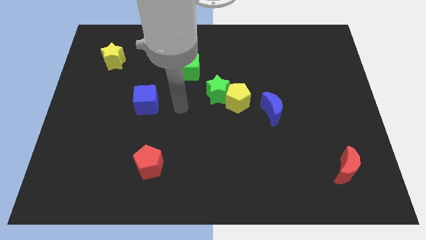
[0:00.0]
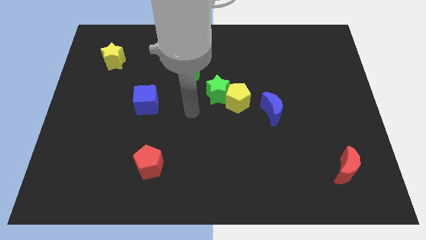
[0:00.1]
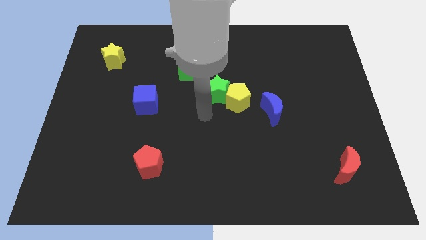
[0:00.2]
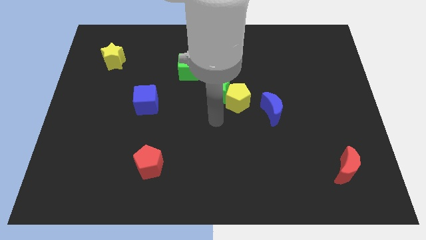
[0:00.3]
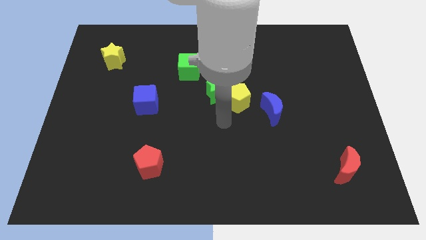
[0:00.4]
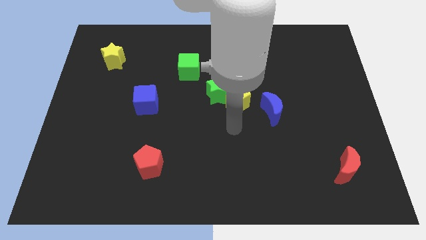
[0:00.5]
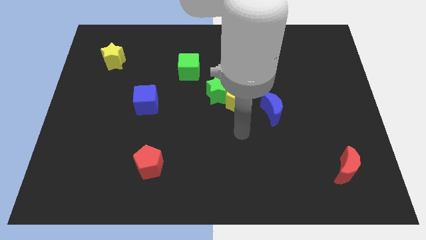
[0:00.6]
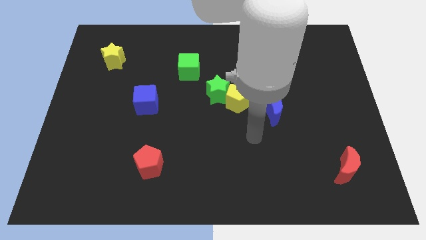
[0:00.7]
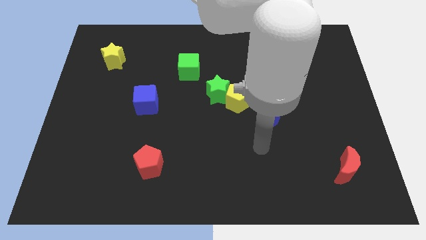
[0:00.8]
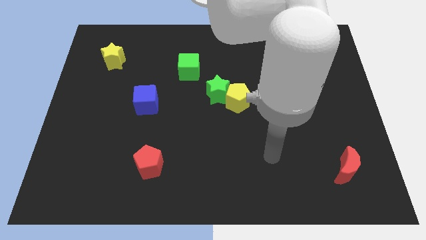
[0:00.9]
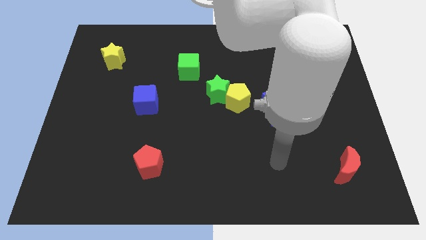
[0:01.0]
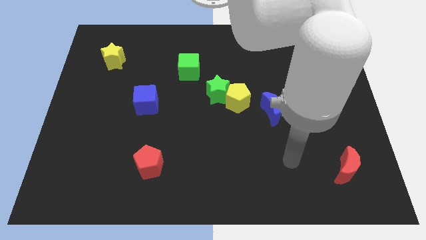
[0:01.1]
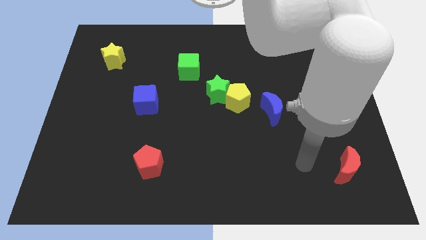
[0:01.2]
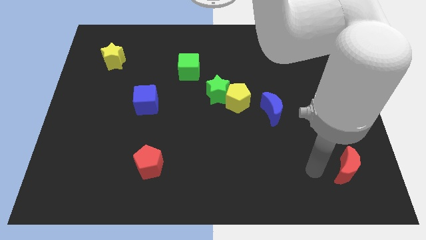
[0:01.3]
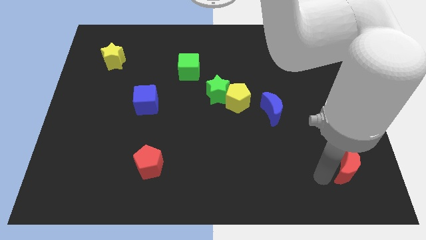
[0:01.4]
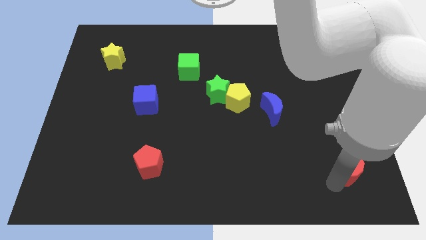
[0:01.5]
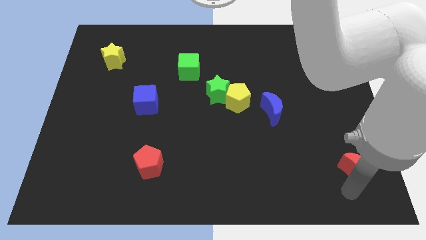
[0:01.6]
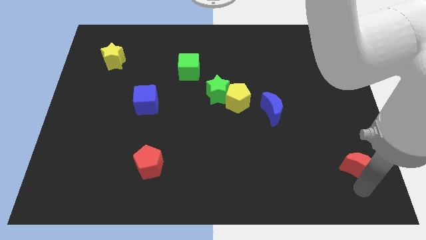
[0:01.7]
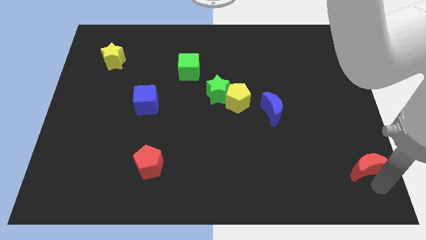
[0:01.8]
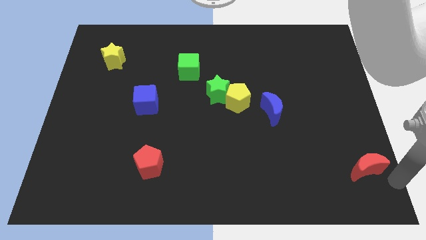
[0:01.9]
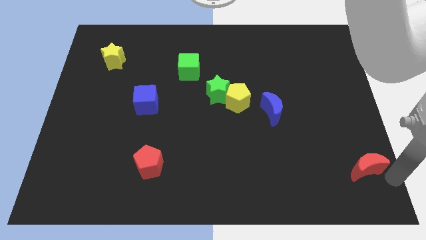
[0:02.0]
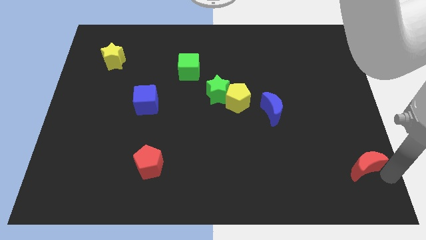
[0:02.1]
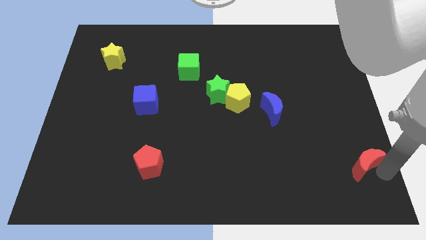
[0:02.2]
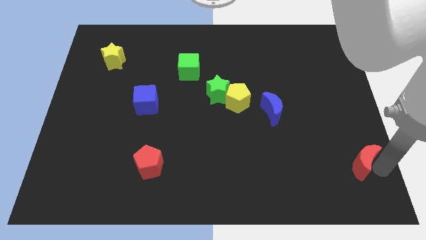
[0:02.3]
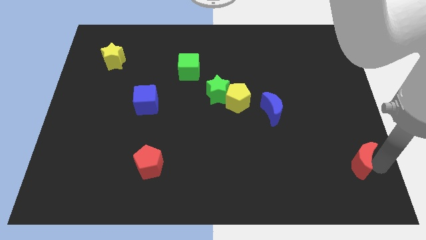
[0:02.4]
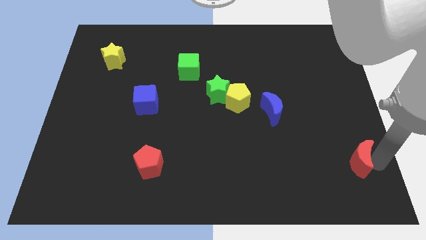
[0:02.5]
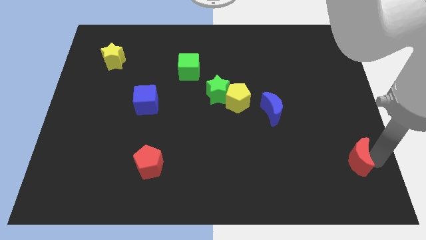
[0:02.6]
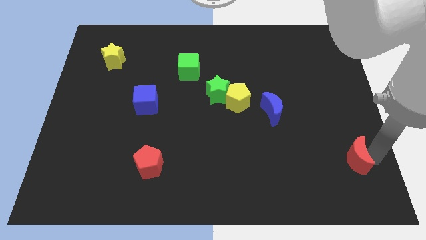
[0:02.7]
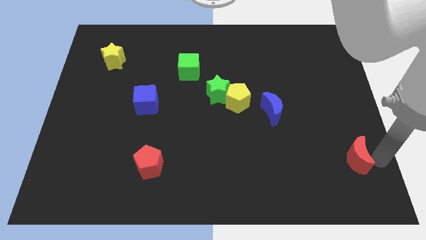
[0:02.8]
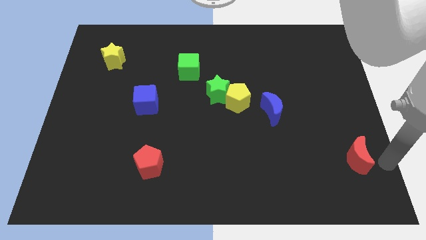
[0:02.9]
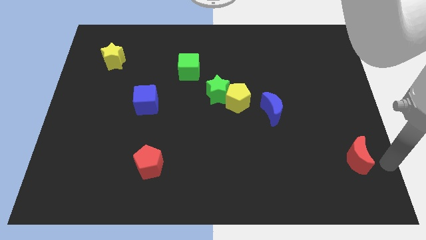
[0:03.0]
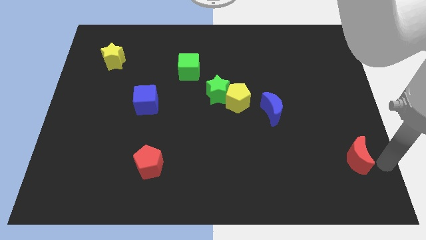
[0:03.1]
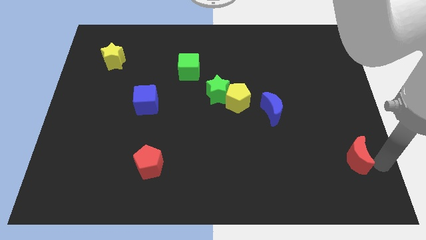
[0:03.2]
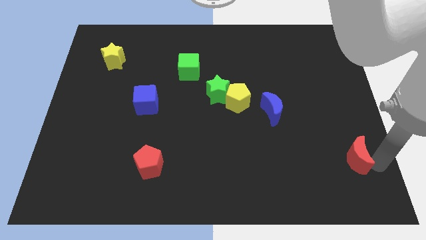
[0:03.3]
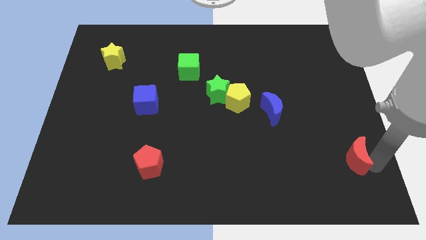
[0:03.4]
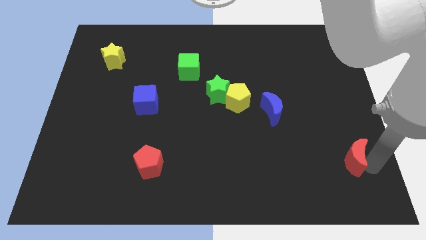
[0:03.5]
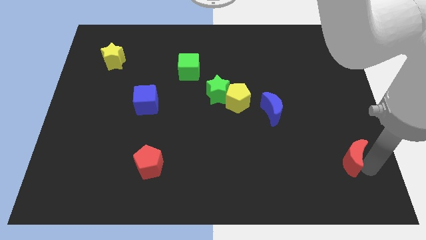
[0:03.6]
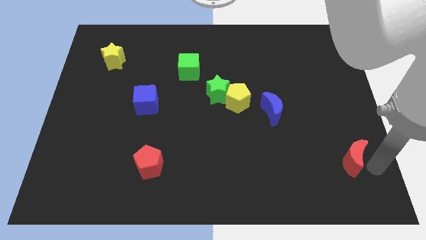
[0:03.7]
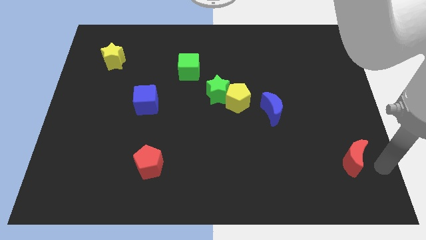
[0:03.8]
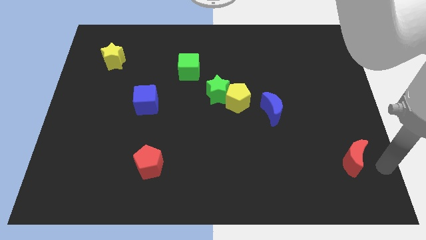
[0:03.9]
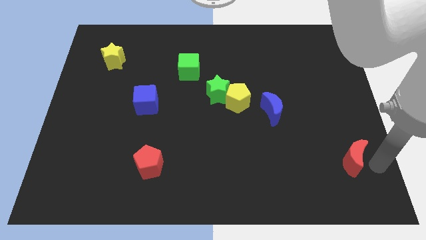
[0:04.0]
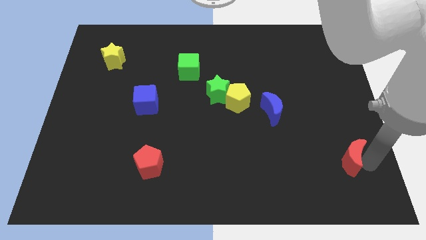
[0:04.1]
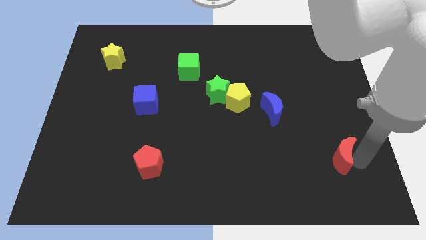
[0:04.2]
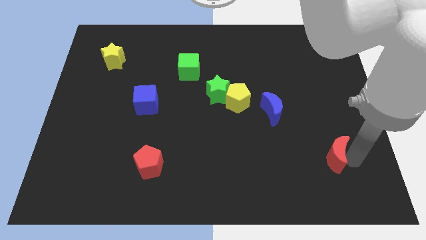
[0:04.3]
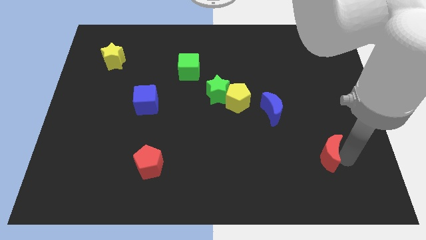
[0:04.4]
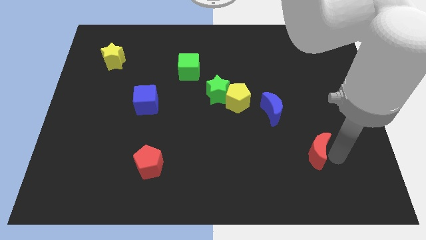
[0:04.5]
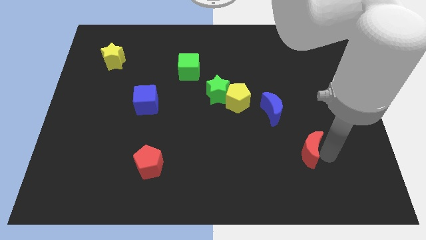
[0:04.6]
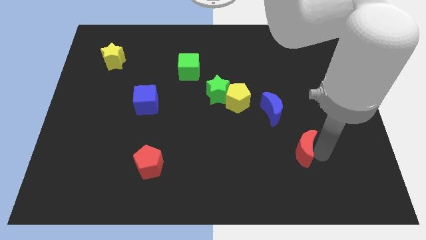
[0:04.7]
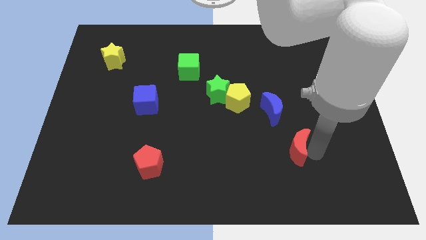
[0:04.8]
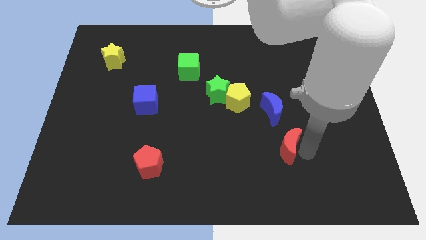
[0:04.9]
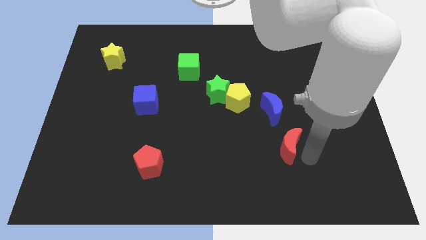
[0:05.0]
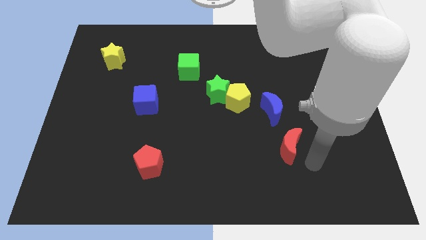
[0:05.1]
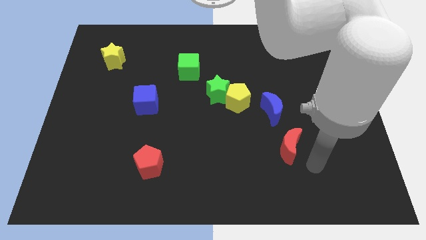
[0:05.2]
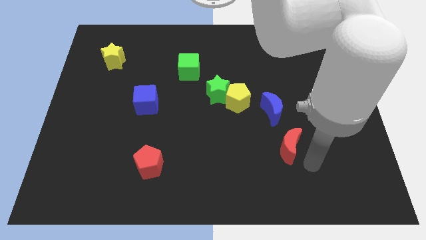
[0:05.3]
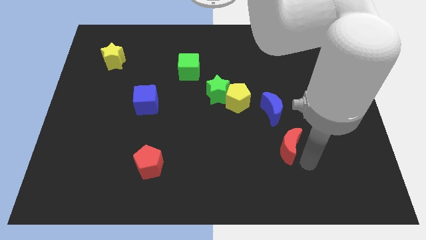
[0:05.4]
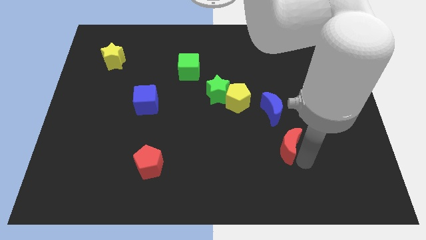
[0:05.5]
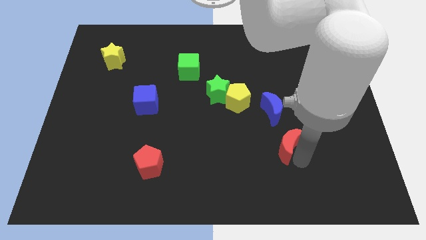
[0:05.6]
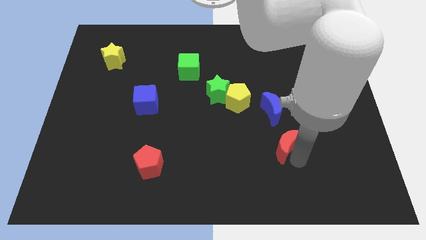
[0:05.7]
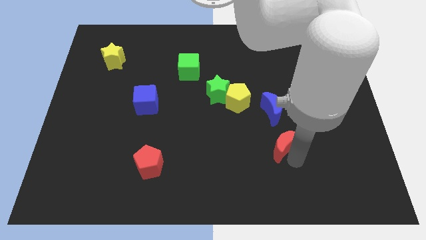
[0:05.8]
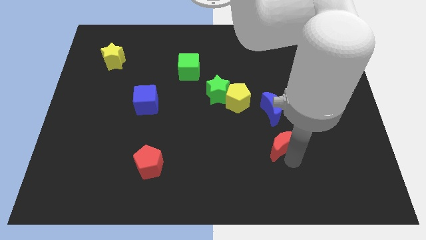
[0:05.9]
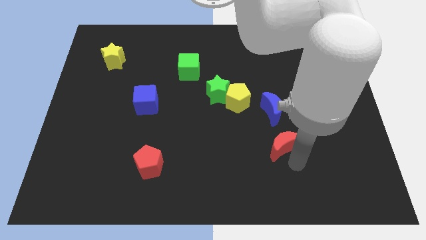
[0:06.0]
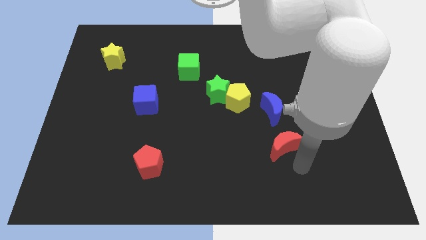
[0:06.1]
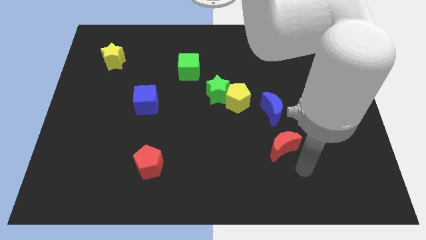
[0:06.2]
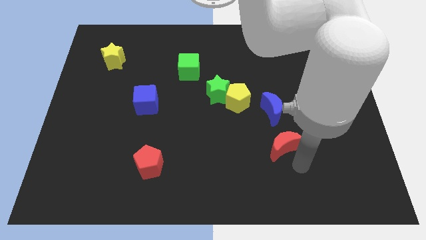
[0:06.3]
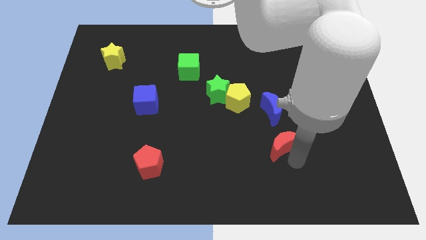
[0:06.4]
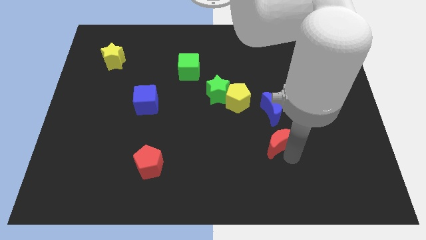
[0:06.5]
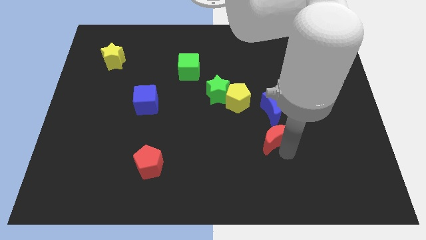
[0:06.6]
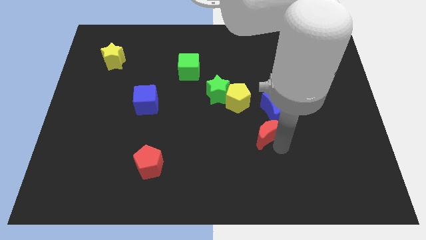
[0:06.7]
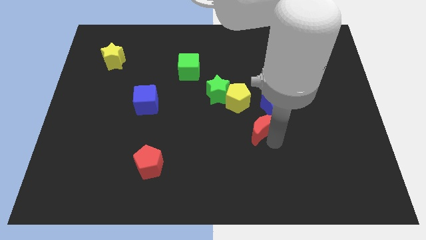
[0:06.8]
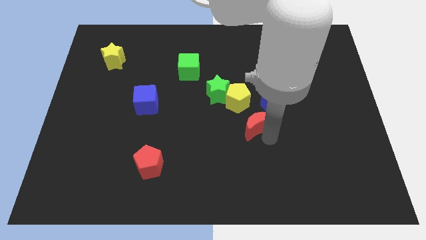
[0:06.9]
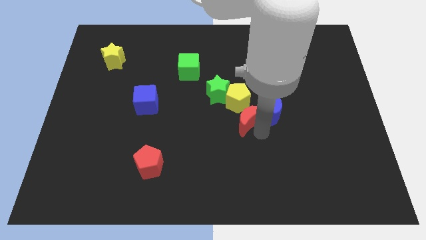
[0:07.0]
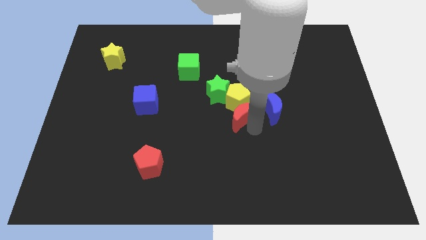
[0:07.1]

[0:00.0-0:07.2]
push the red moon towards the yellow pentagon
